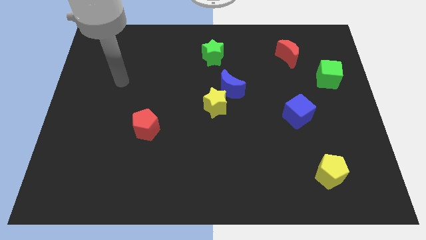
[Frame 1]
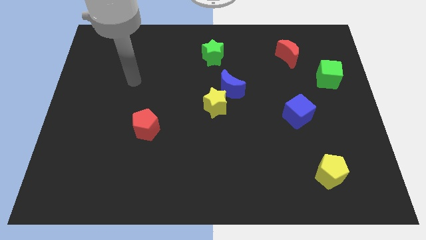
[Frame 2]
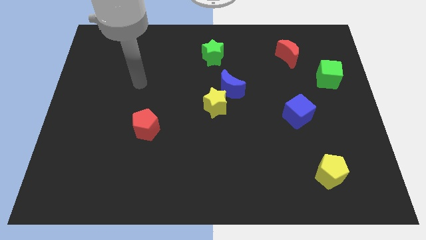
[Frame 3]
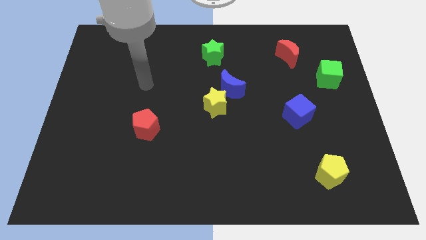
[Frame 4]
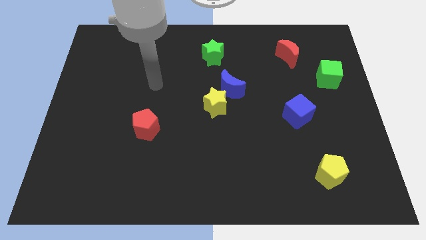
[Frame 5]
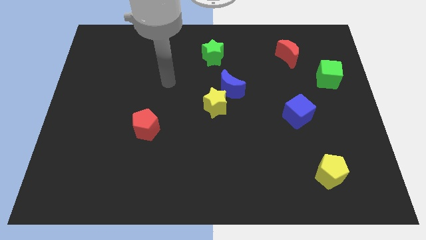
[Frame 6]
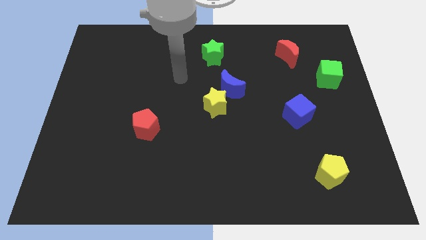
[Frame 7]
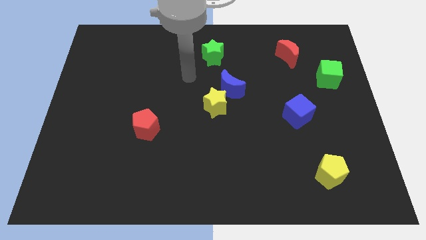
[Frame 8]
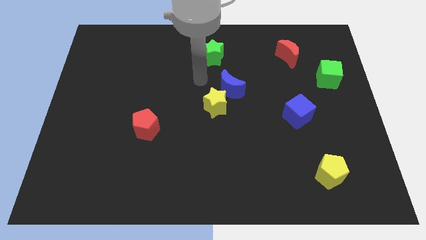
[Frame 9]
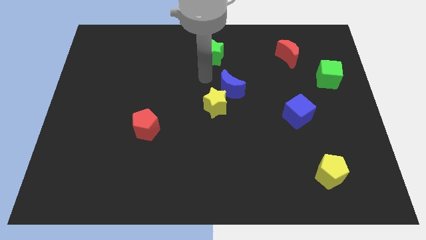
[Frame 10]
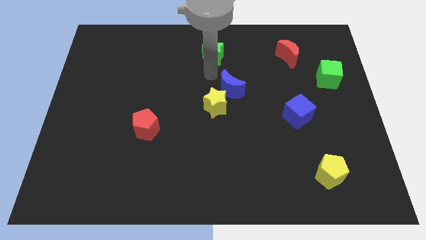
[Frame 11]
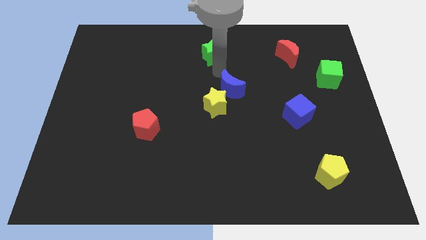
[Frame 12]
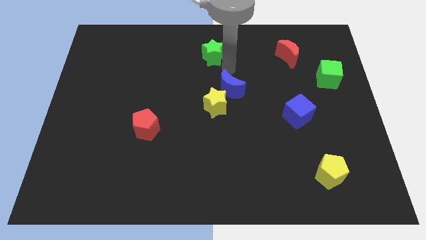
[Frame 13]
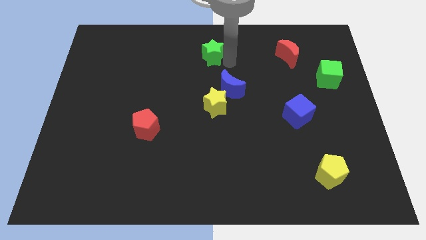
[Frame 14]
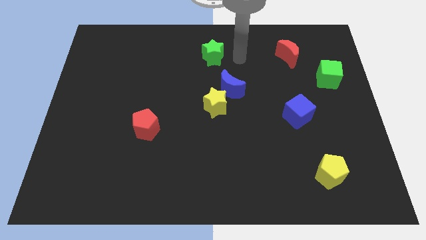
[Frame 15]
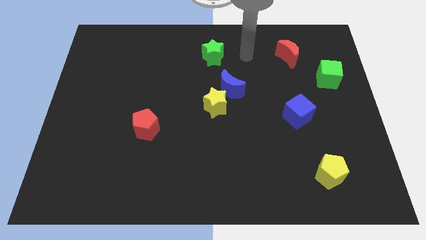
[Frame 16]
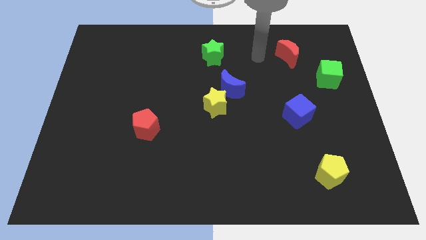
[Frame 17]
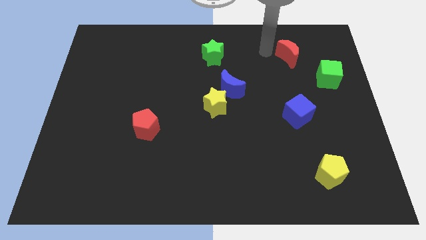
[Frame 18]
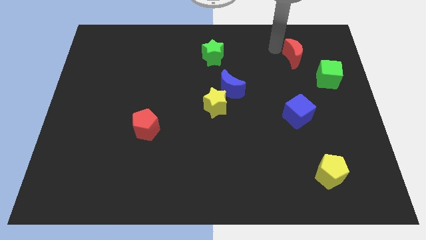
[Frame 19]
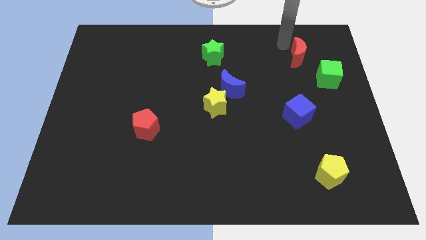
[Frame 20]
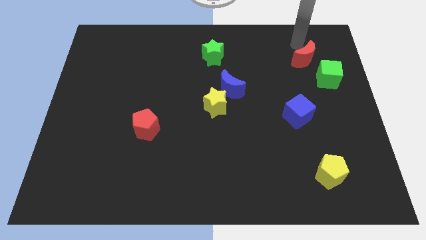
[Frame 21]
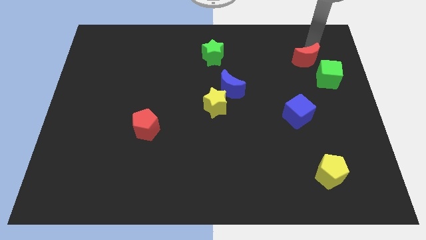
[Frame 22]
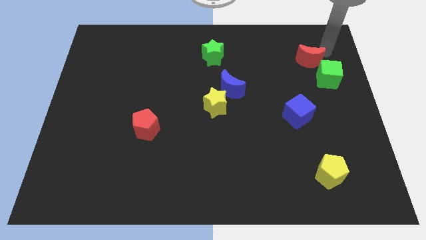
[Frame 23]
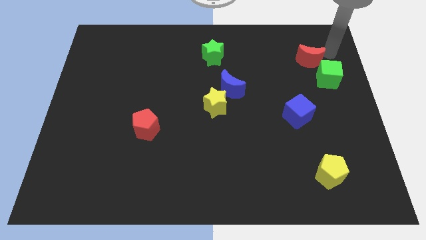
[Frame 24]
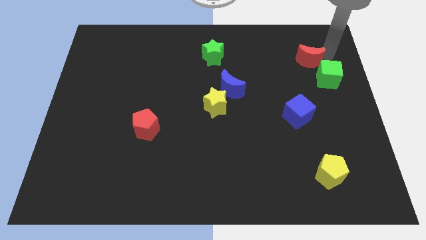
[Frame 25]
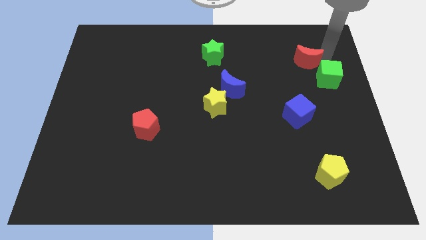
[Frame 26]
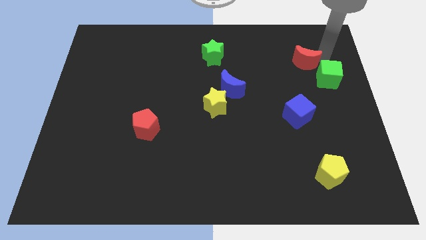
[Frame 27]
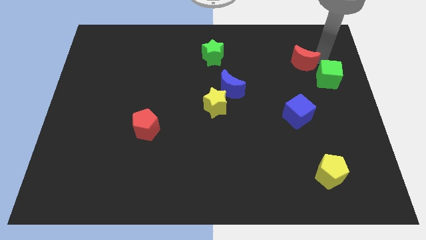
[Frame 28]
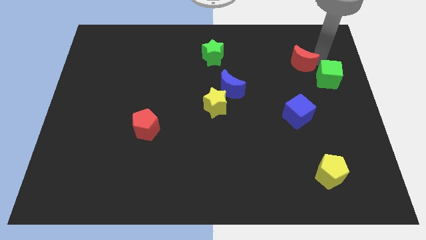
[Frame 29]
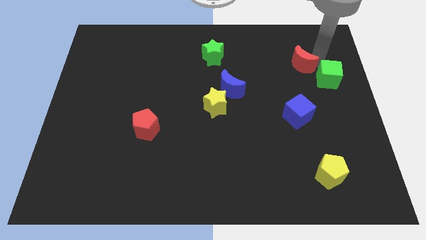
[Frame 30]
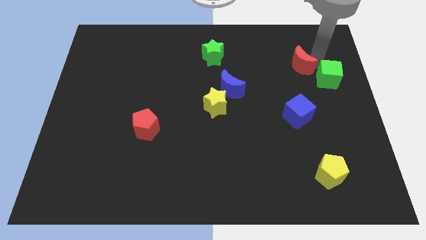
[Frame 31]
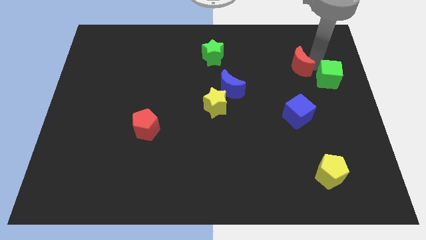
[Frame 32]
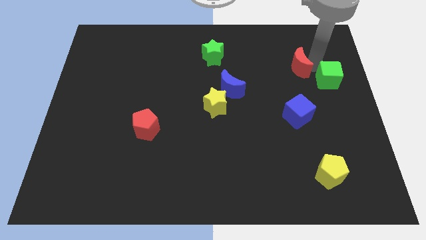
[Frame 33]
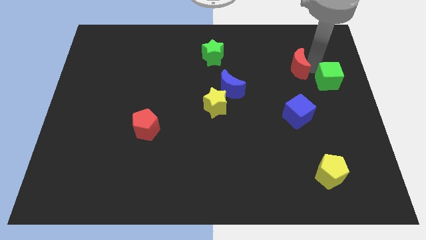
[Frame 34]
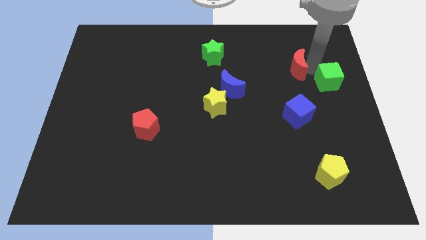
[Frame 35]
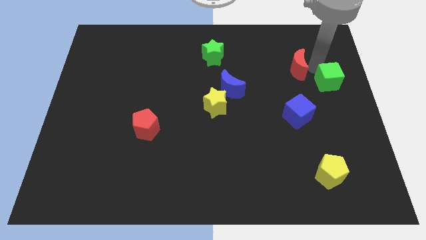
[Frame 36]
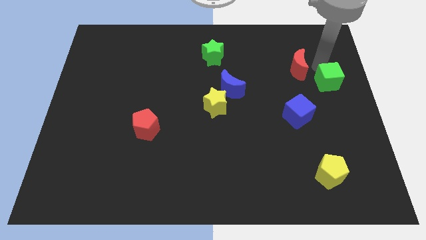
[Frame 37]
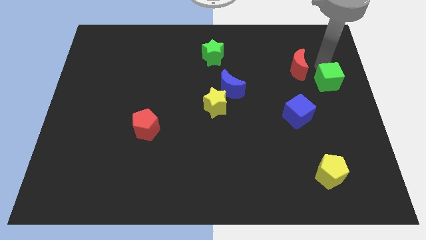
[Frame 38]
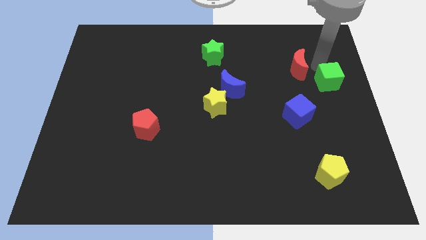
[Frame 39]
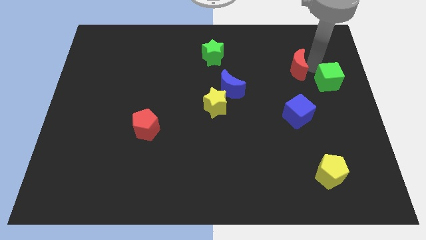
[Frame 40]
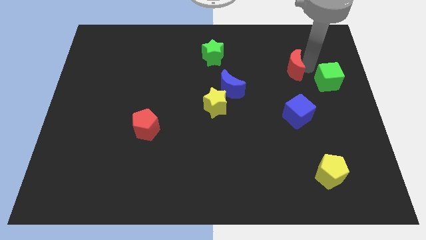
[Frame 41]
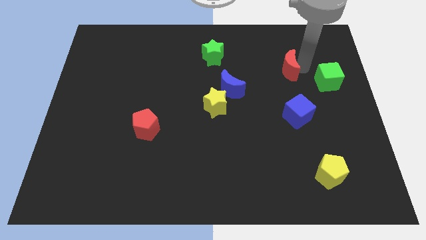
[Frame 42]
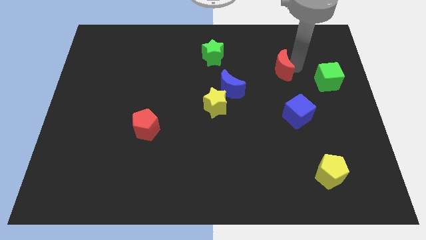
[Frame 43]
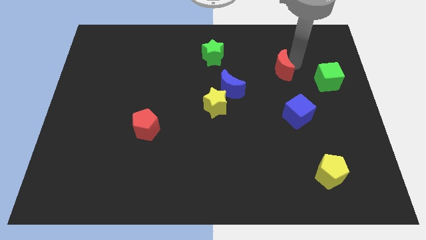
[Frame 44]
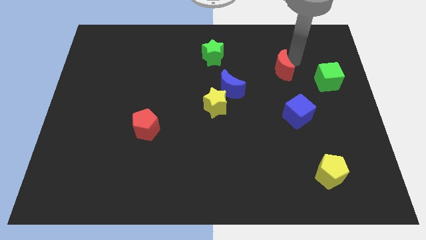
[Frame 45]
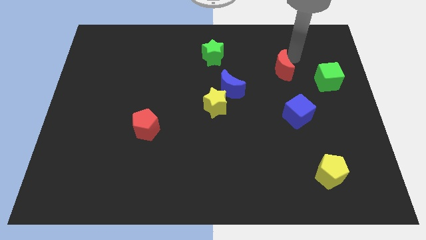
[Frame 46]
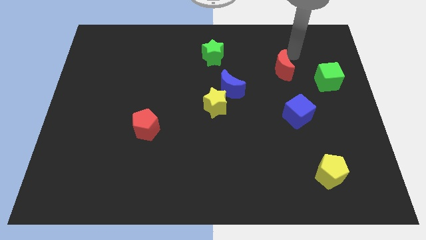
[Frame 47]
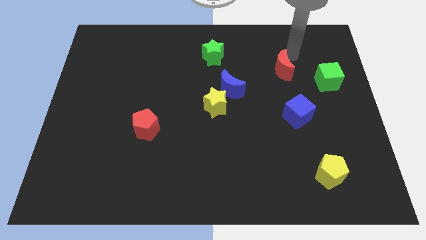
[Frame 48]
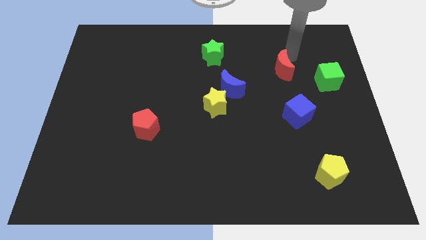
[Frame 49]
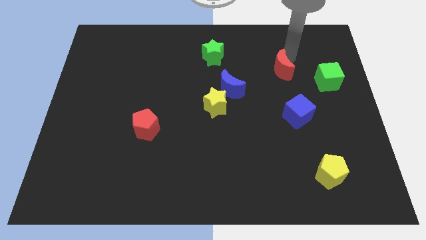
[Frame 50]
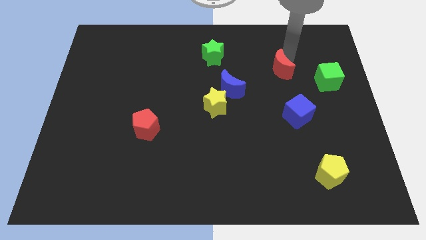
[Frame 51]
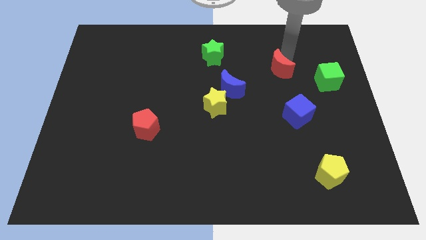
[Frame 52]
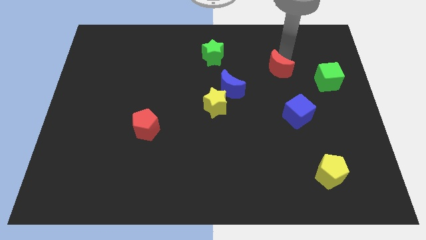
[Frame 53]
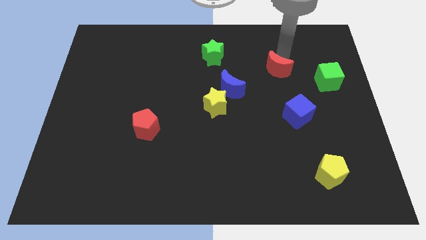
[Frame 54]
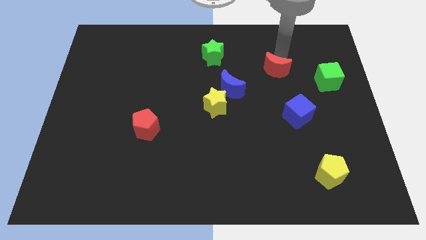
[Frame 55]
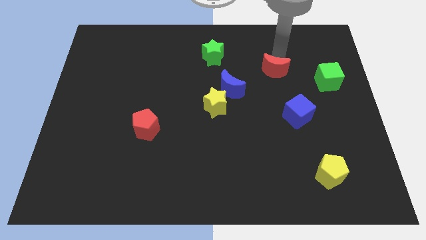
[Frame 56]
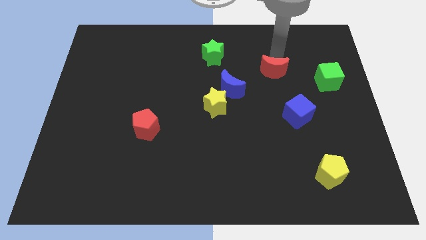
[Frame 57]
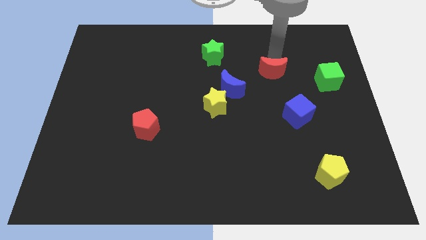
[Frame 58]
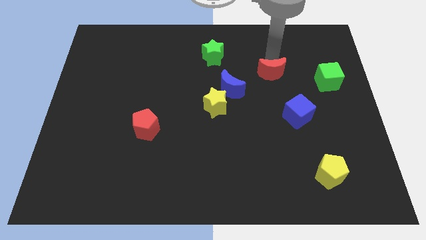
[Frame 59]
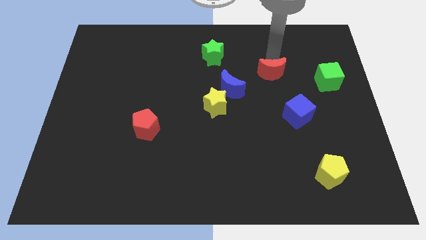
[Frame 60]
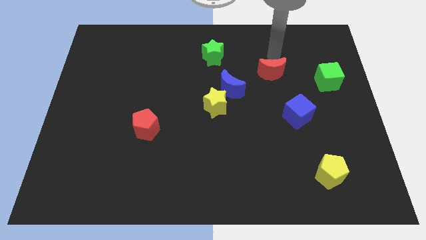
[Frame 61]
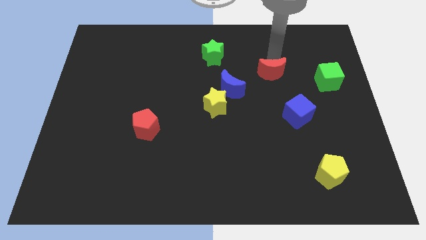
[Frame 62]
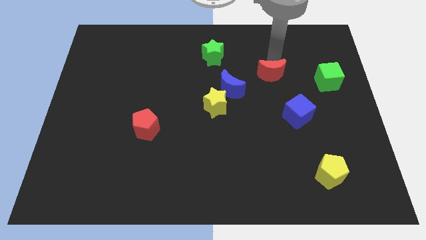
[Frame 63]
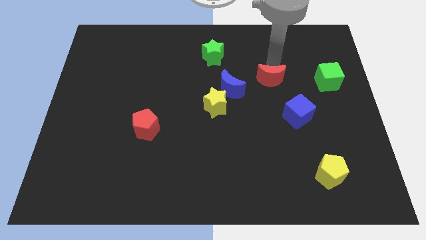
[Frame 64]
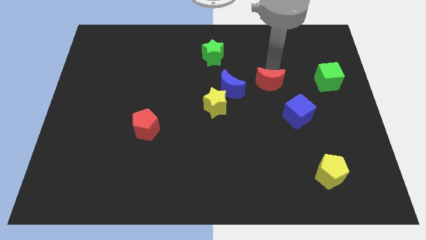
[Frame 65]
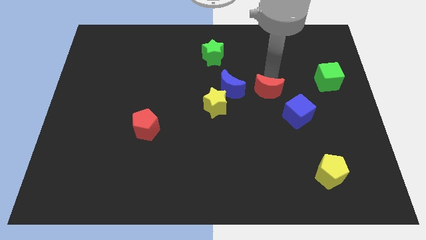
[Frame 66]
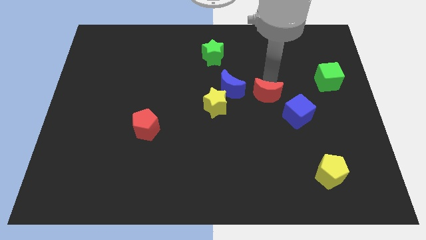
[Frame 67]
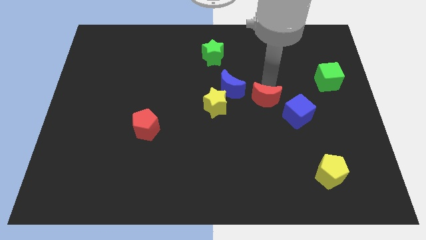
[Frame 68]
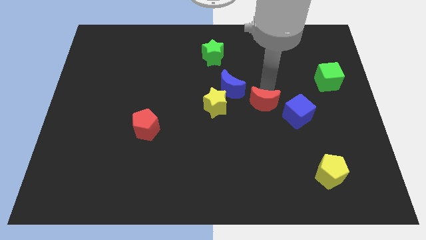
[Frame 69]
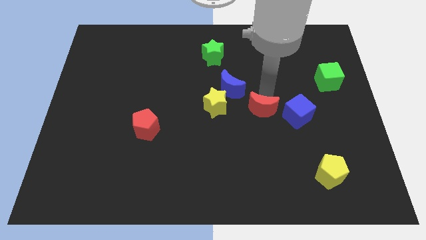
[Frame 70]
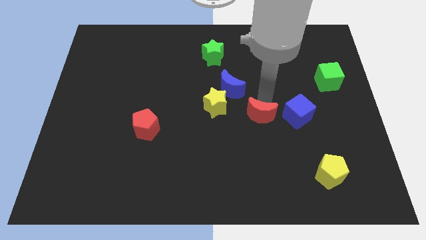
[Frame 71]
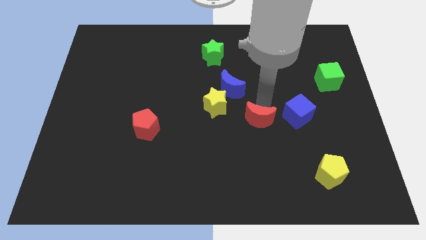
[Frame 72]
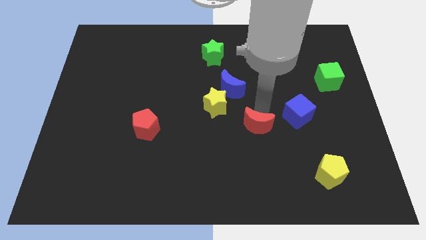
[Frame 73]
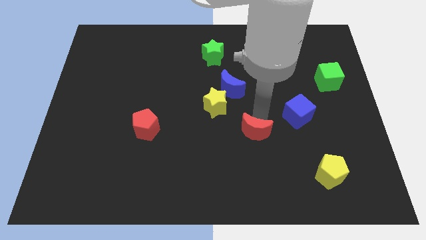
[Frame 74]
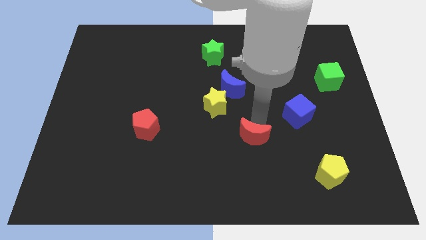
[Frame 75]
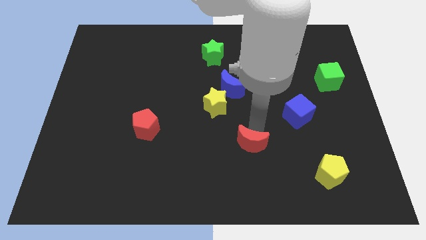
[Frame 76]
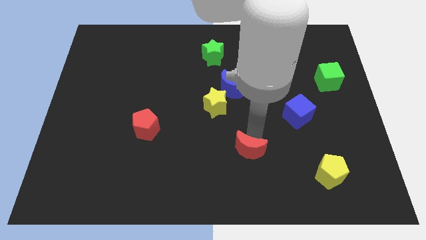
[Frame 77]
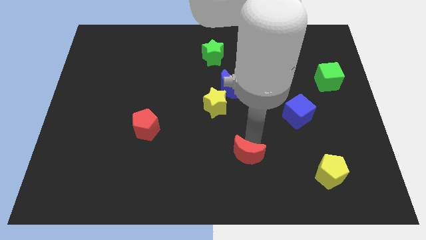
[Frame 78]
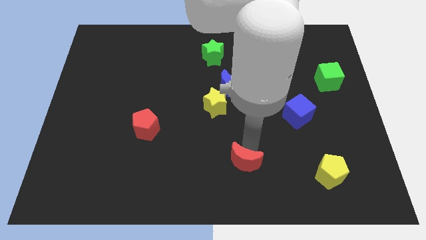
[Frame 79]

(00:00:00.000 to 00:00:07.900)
slide the red moon to the bottom
